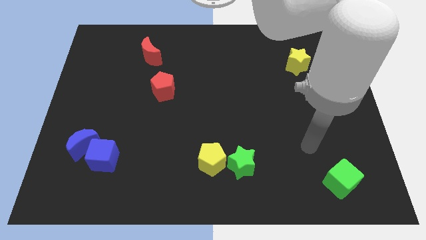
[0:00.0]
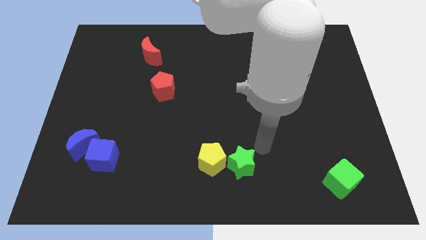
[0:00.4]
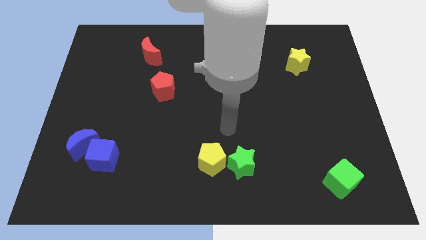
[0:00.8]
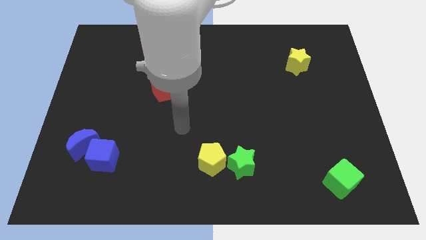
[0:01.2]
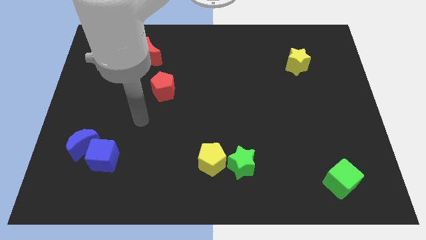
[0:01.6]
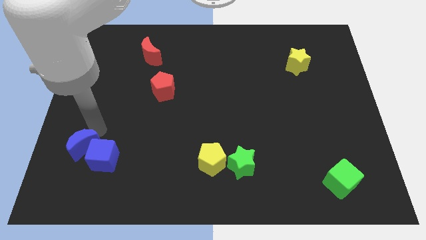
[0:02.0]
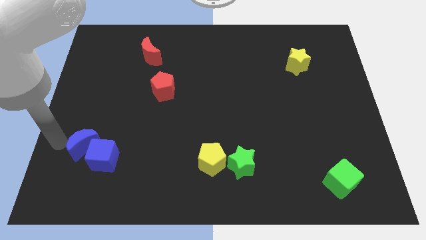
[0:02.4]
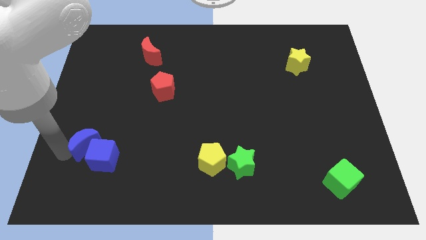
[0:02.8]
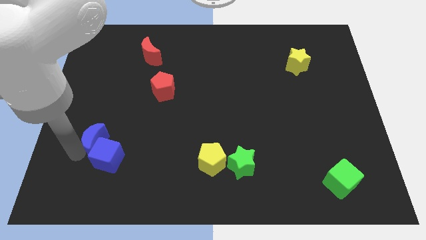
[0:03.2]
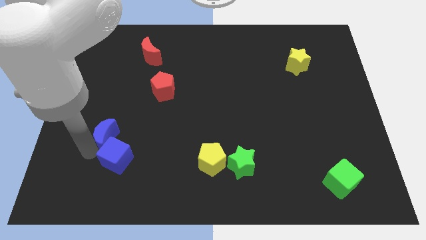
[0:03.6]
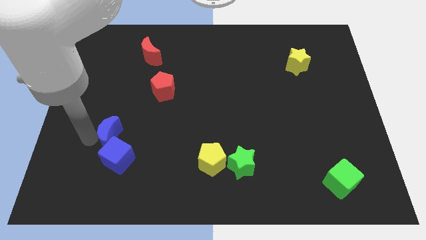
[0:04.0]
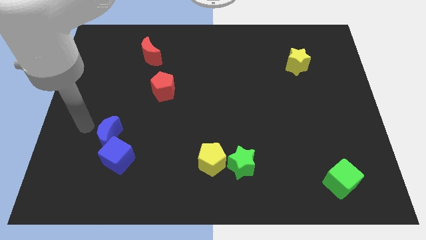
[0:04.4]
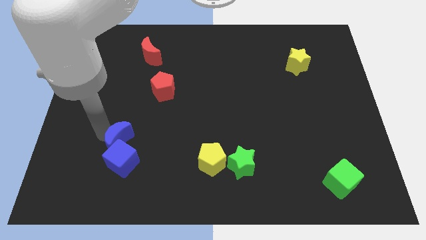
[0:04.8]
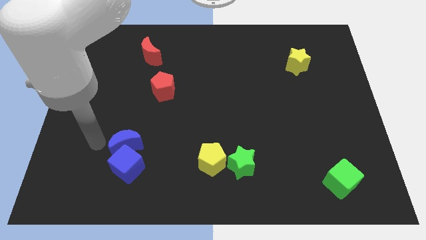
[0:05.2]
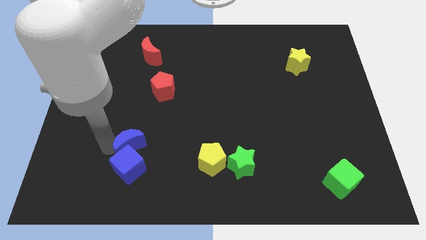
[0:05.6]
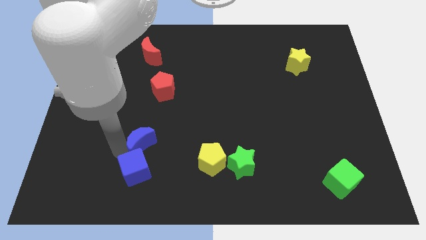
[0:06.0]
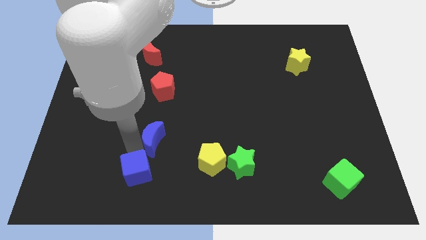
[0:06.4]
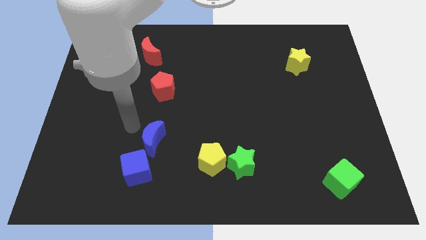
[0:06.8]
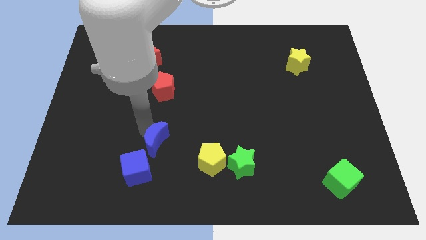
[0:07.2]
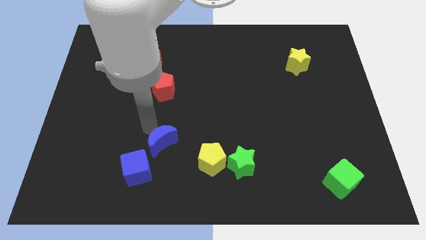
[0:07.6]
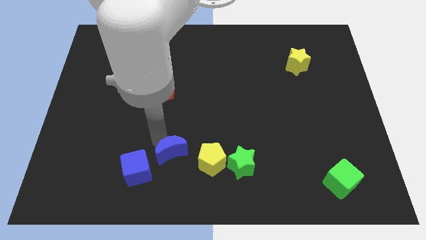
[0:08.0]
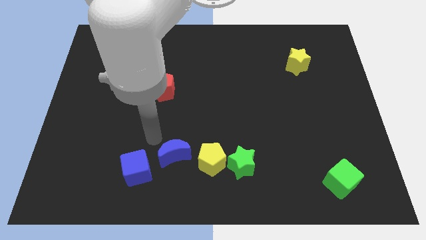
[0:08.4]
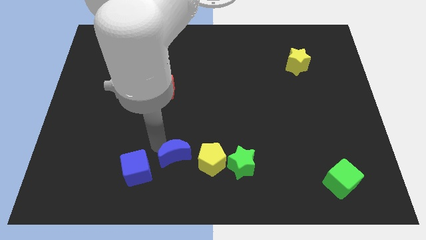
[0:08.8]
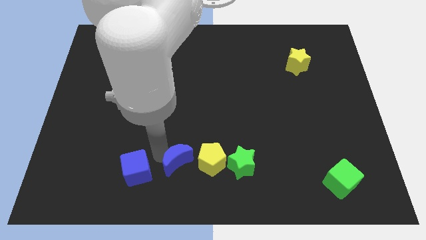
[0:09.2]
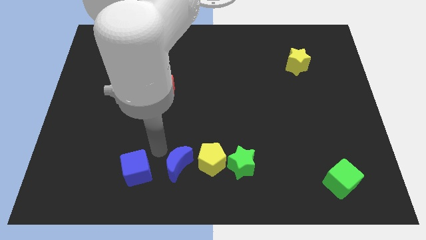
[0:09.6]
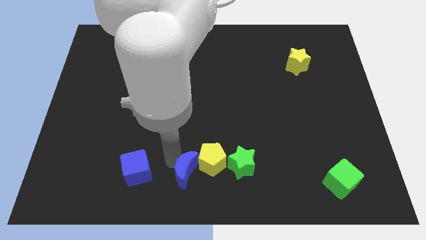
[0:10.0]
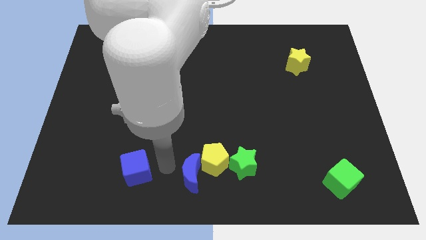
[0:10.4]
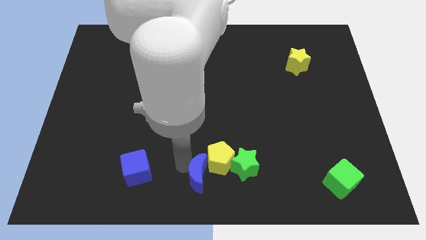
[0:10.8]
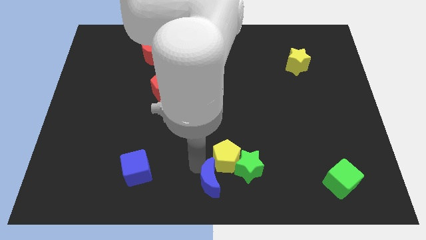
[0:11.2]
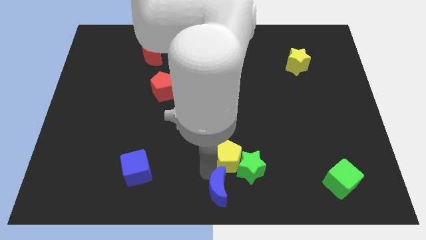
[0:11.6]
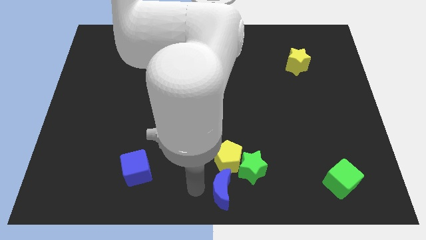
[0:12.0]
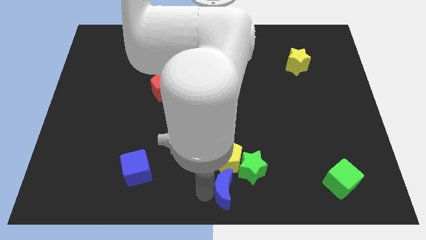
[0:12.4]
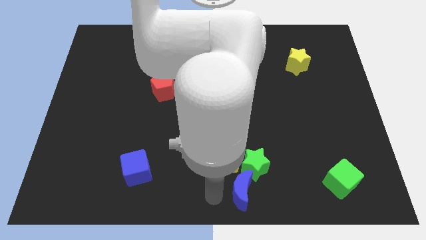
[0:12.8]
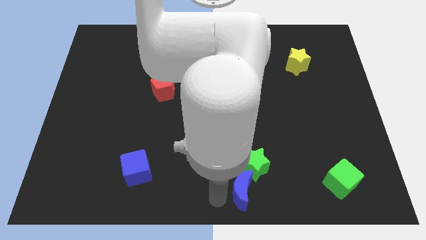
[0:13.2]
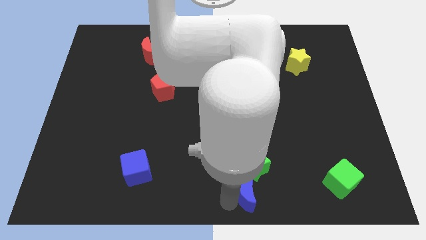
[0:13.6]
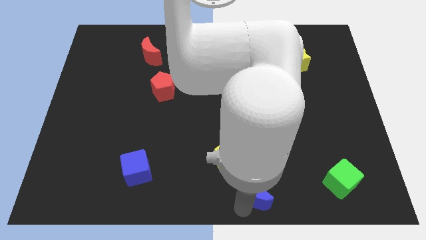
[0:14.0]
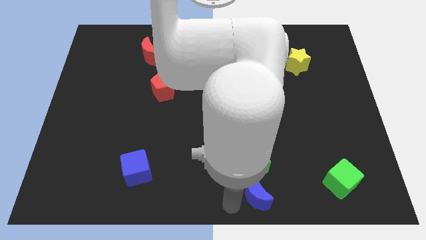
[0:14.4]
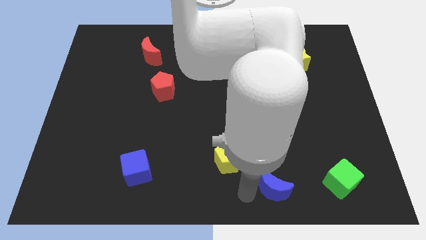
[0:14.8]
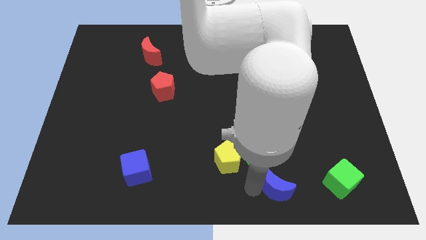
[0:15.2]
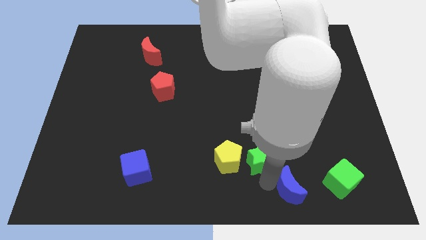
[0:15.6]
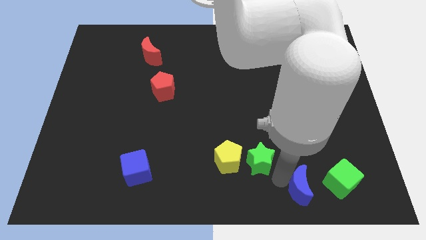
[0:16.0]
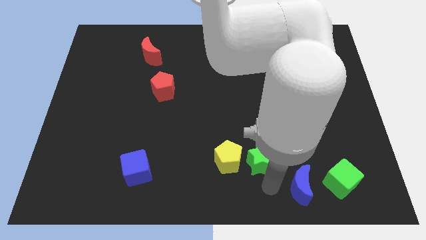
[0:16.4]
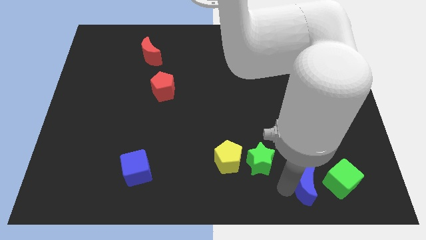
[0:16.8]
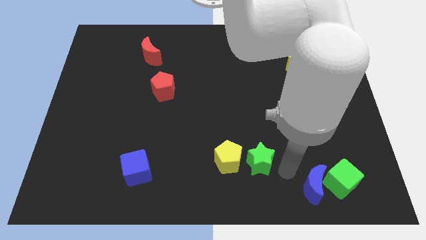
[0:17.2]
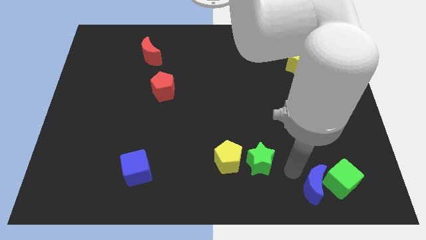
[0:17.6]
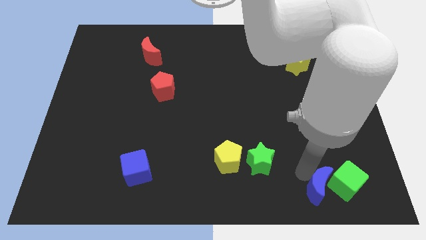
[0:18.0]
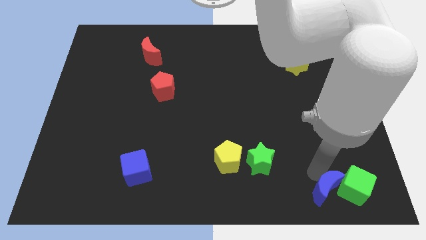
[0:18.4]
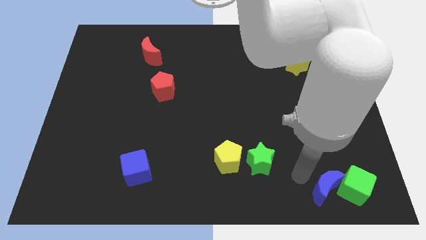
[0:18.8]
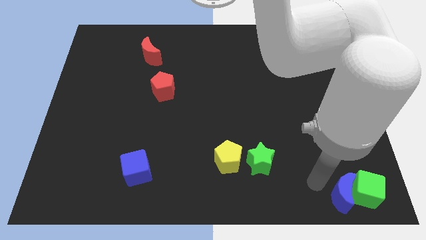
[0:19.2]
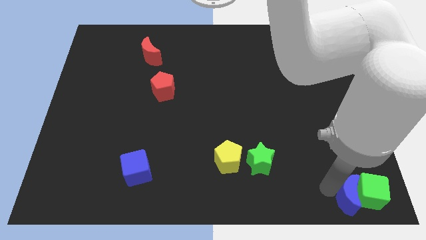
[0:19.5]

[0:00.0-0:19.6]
move the blue moon to the bottom right corner

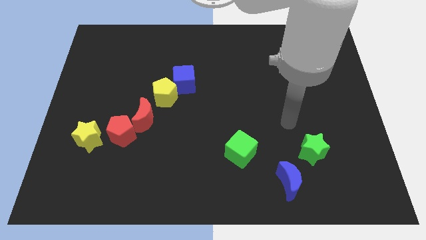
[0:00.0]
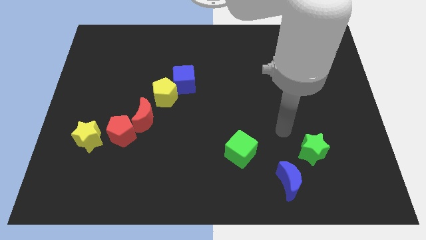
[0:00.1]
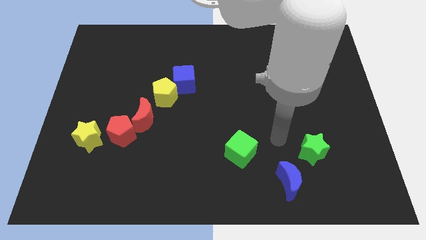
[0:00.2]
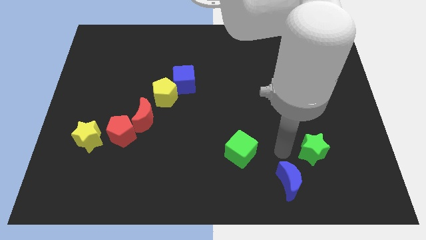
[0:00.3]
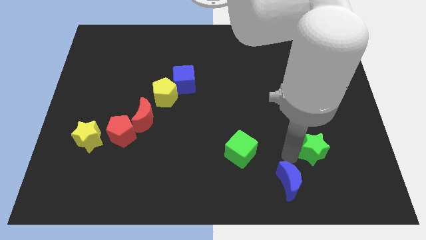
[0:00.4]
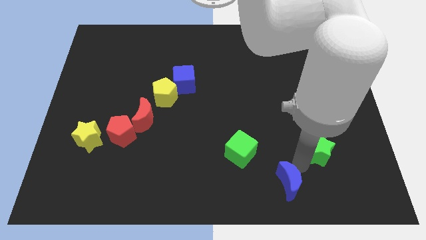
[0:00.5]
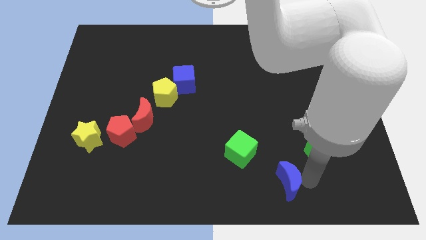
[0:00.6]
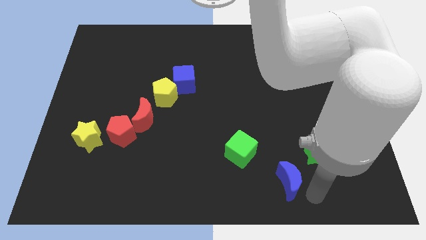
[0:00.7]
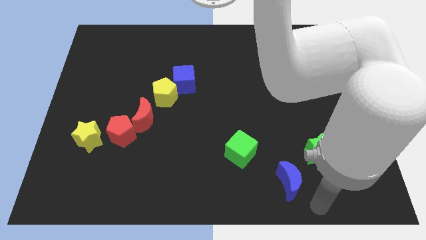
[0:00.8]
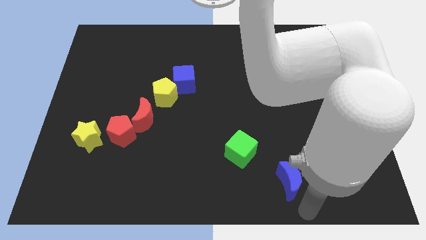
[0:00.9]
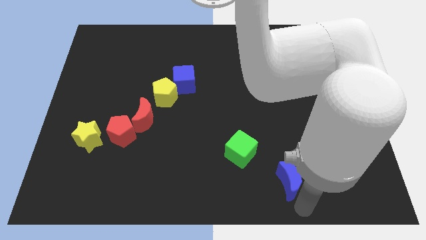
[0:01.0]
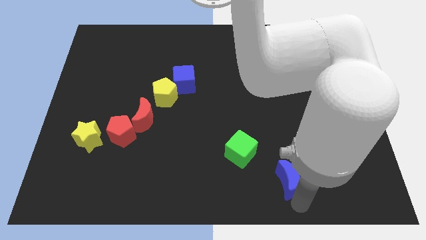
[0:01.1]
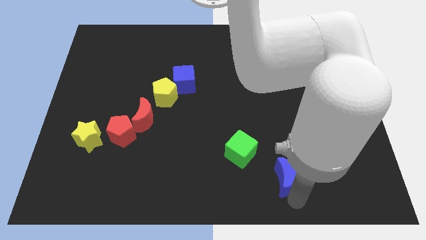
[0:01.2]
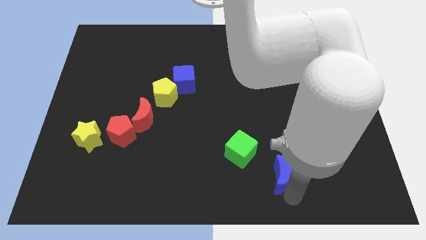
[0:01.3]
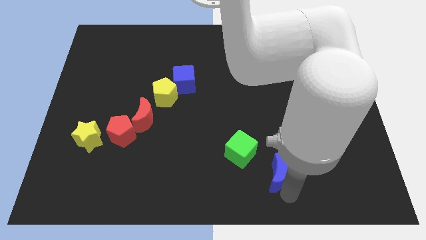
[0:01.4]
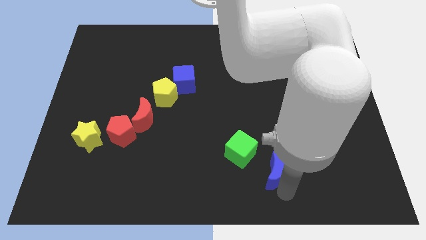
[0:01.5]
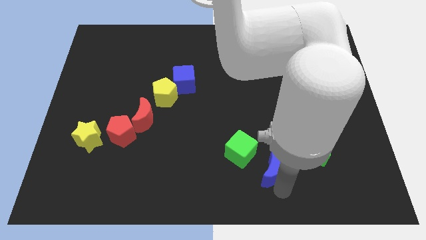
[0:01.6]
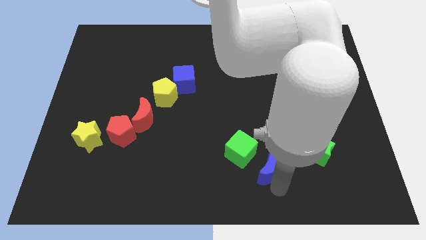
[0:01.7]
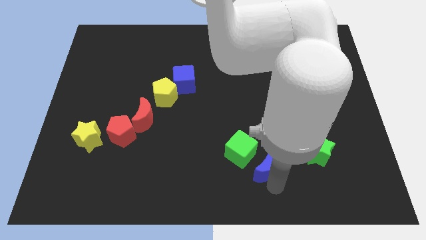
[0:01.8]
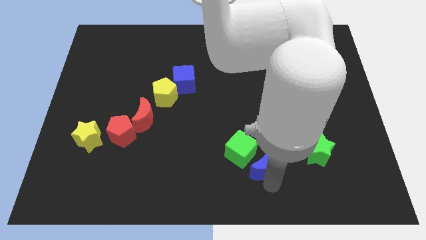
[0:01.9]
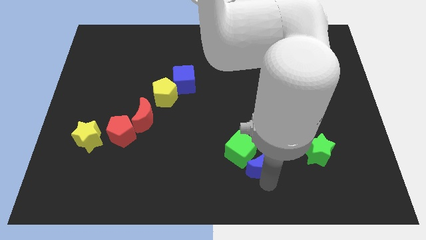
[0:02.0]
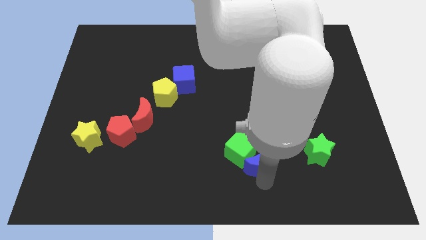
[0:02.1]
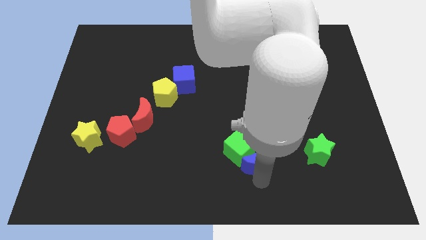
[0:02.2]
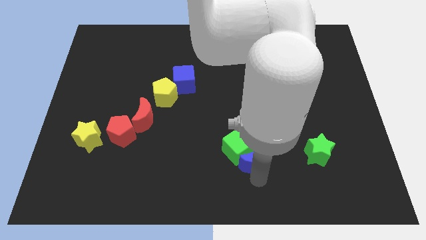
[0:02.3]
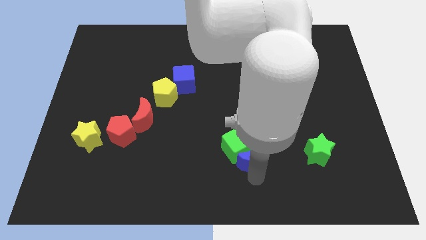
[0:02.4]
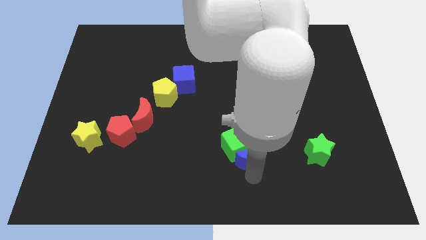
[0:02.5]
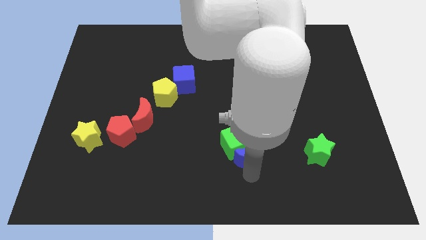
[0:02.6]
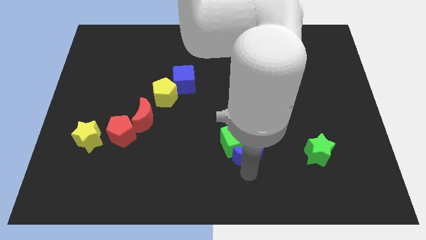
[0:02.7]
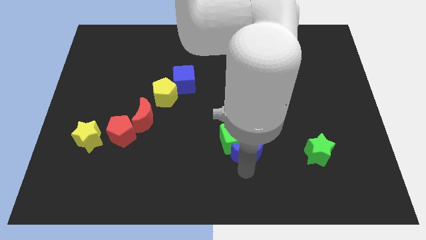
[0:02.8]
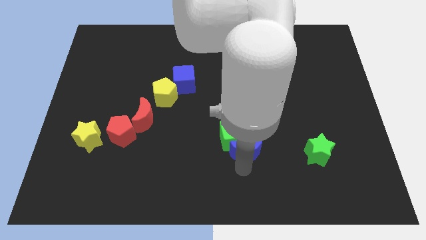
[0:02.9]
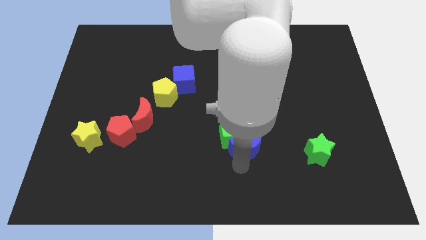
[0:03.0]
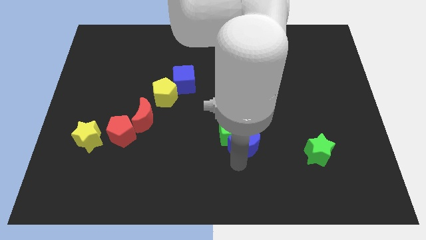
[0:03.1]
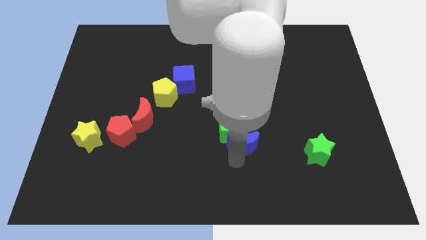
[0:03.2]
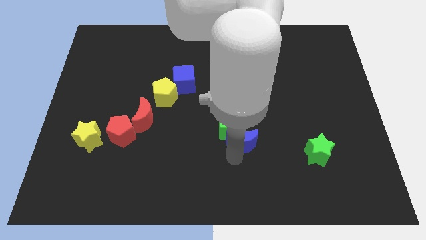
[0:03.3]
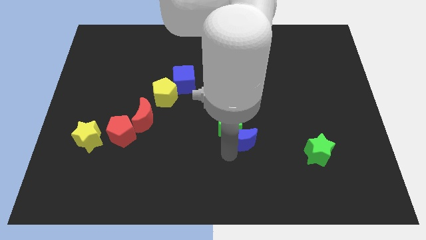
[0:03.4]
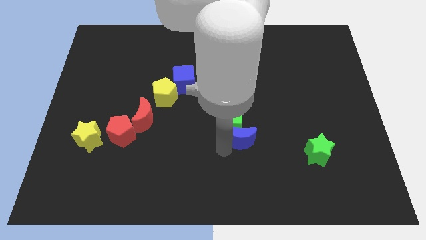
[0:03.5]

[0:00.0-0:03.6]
push the blue moon to the middle
